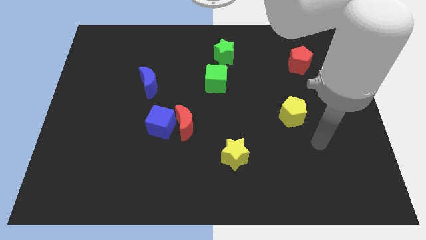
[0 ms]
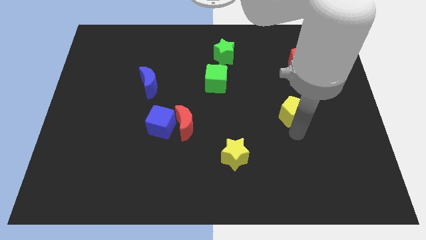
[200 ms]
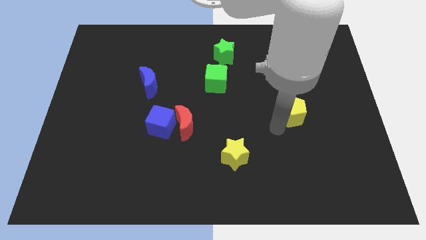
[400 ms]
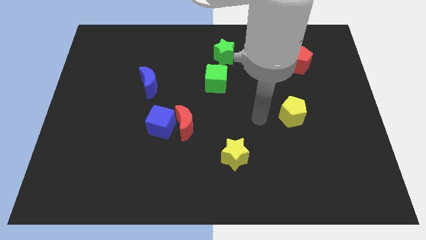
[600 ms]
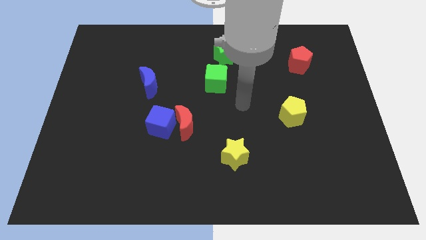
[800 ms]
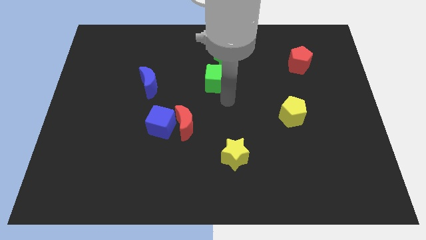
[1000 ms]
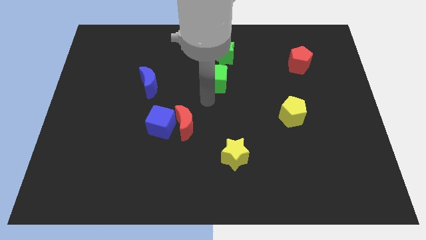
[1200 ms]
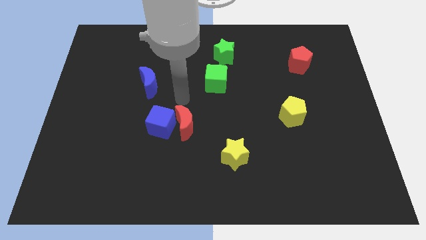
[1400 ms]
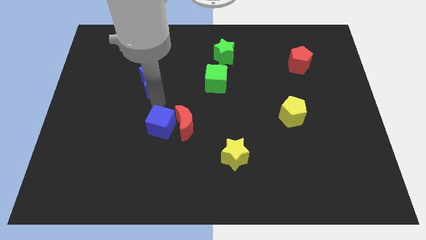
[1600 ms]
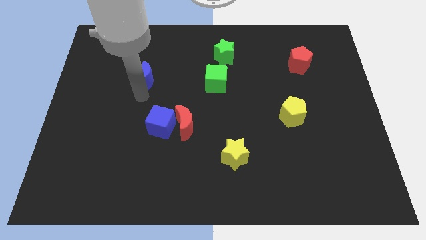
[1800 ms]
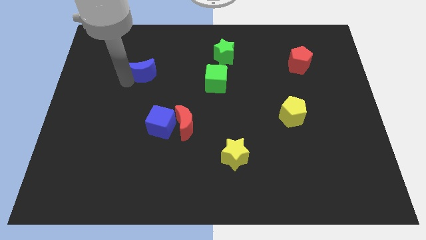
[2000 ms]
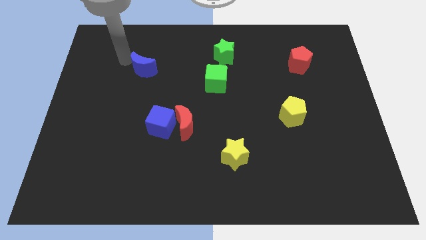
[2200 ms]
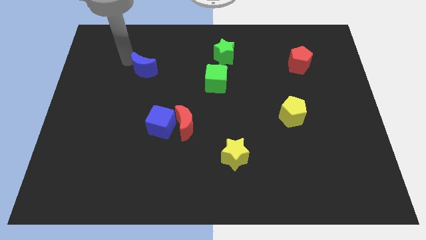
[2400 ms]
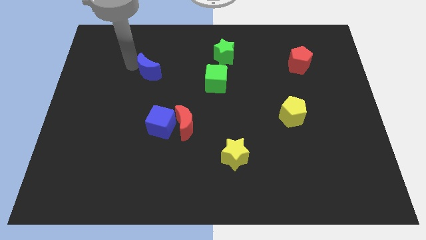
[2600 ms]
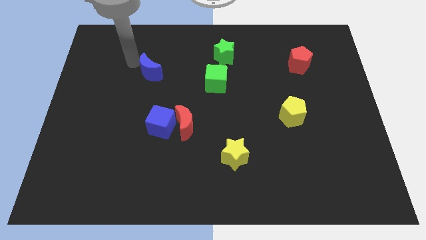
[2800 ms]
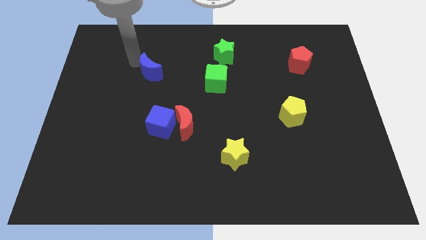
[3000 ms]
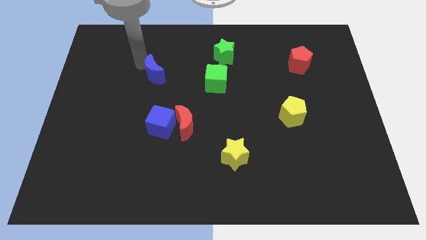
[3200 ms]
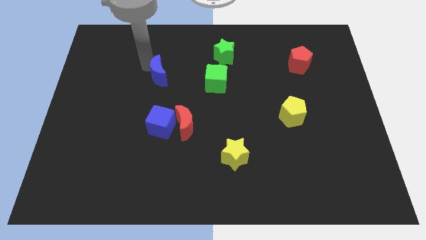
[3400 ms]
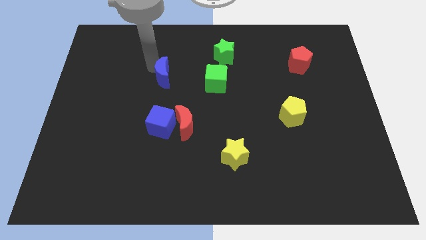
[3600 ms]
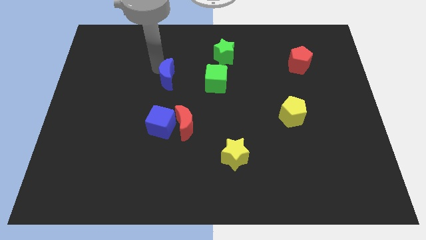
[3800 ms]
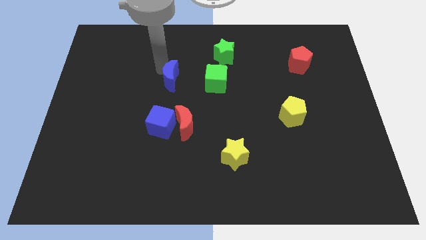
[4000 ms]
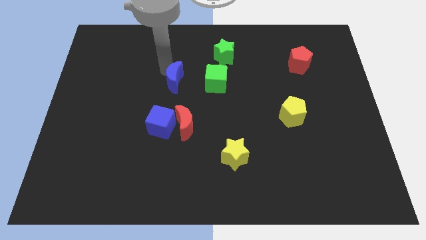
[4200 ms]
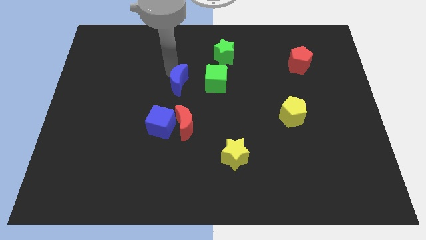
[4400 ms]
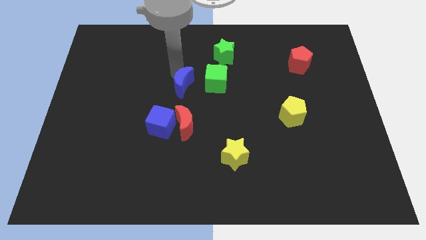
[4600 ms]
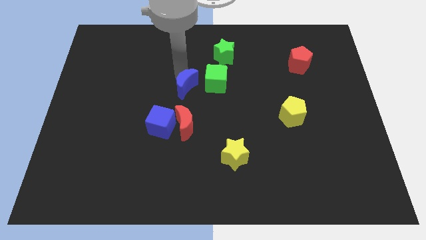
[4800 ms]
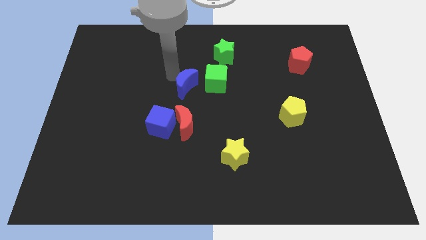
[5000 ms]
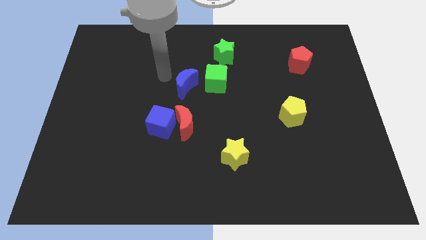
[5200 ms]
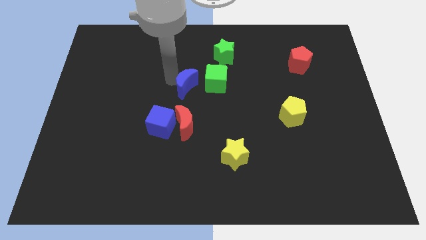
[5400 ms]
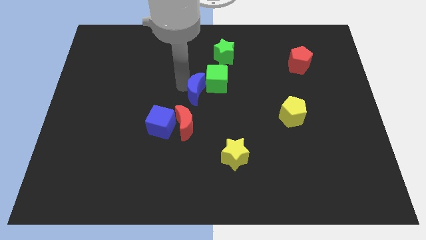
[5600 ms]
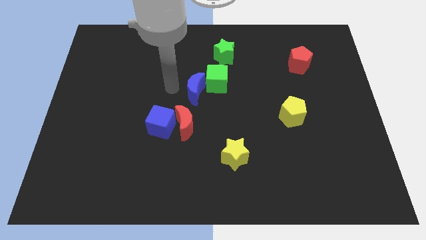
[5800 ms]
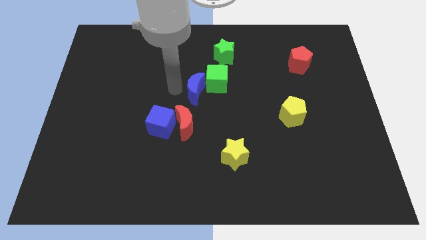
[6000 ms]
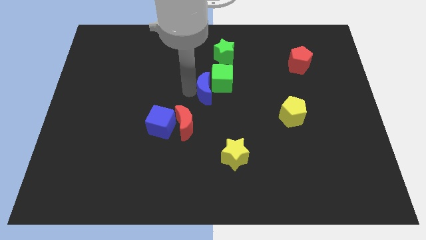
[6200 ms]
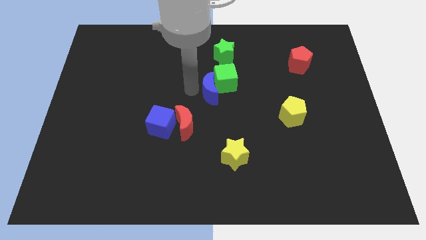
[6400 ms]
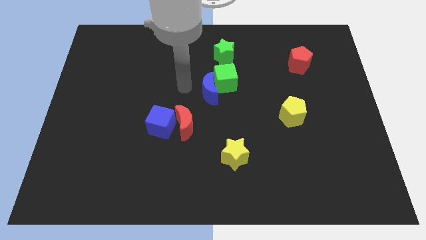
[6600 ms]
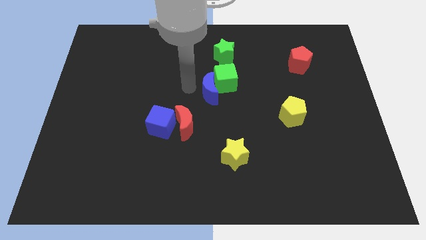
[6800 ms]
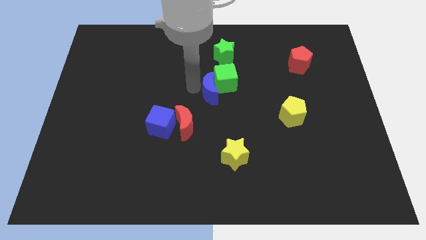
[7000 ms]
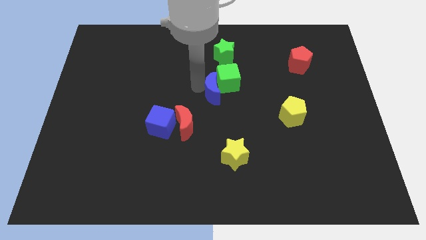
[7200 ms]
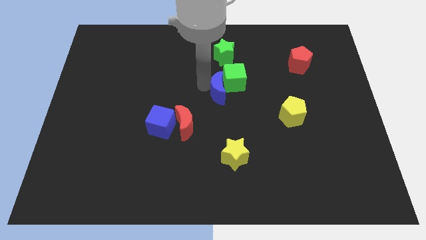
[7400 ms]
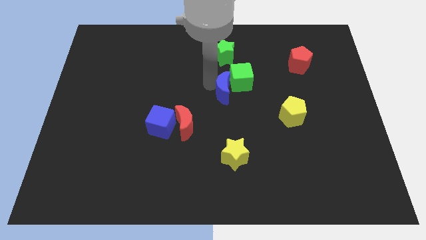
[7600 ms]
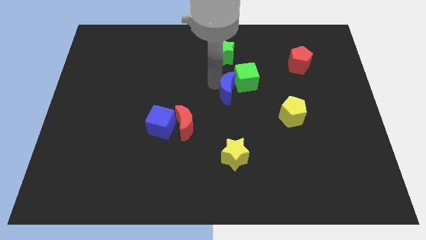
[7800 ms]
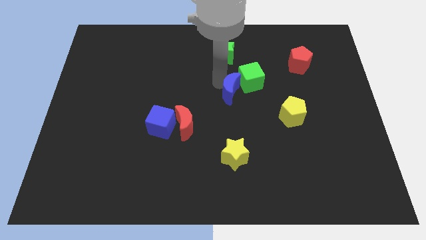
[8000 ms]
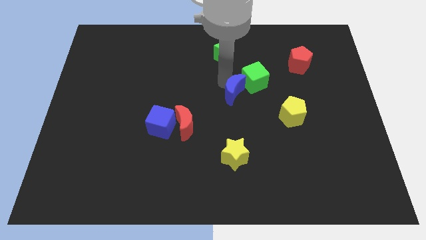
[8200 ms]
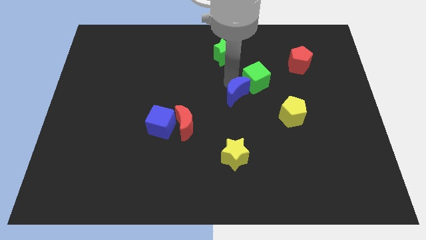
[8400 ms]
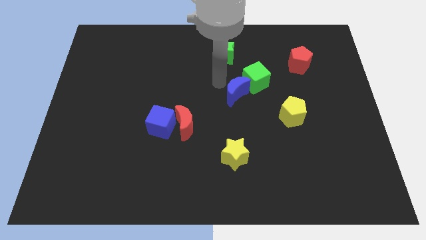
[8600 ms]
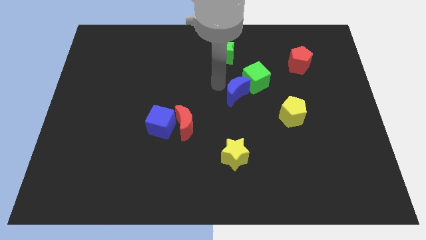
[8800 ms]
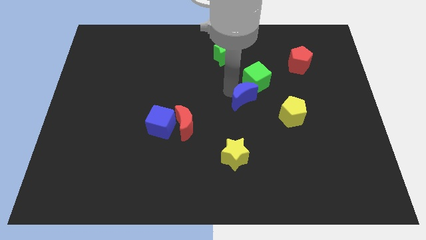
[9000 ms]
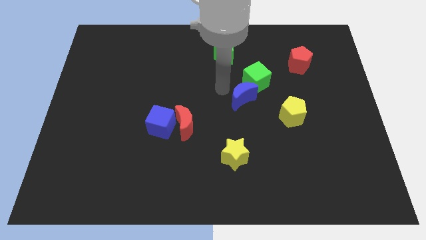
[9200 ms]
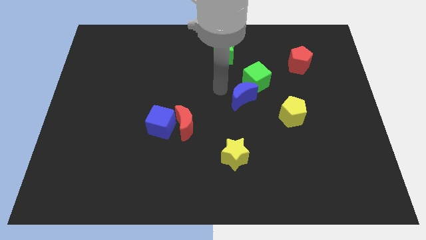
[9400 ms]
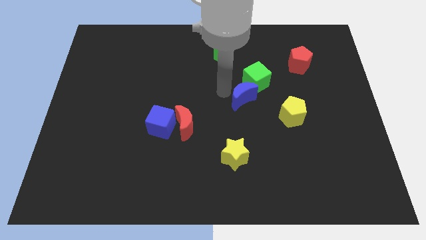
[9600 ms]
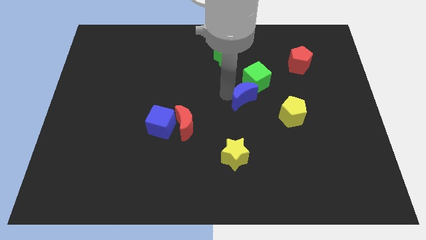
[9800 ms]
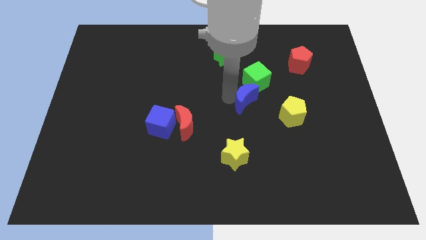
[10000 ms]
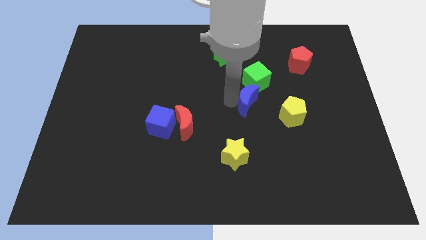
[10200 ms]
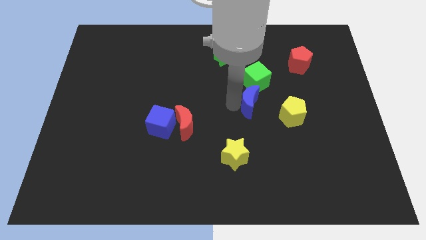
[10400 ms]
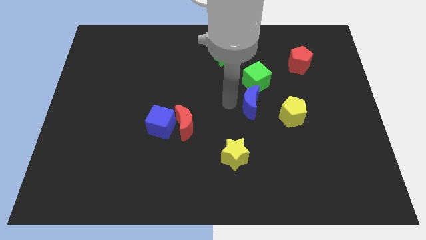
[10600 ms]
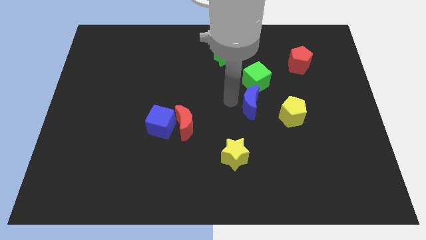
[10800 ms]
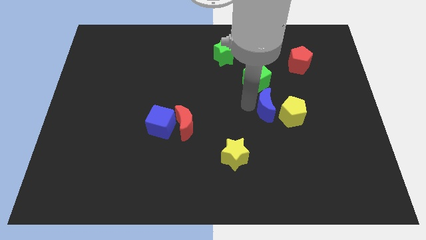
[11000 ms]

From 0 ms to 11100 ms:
push the blue moon to the yellow pentagon

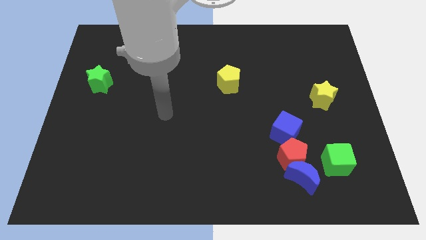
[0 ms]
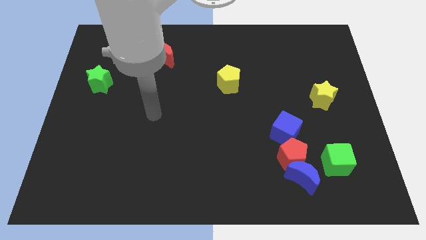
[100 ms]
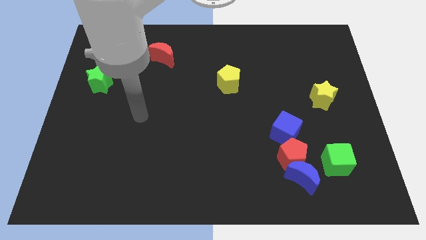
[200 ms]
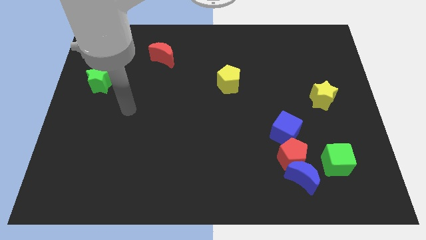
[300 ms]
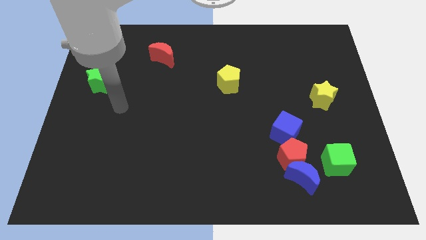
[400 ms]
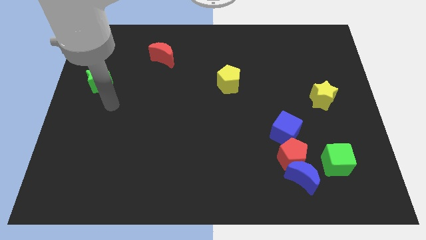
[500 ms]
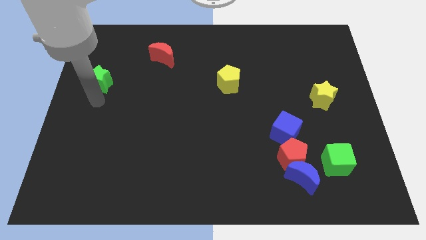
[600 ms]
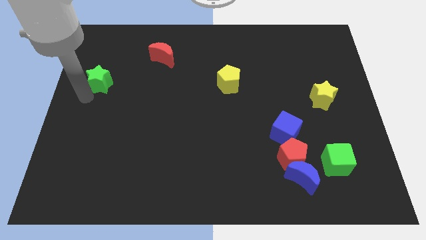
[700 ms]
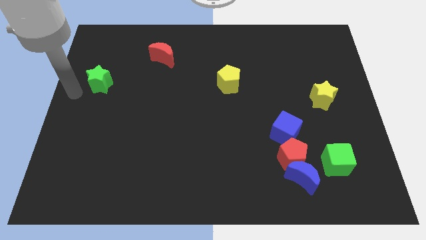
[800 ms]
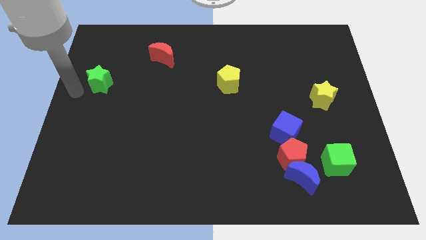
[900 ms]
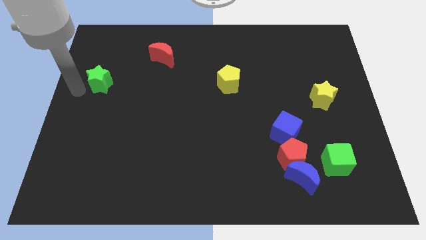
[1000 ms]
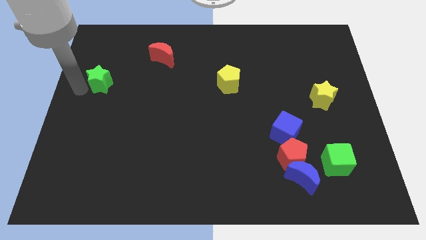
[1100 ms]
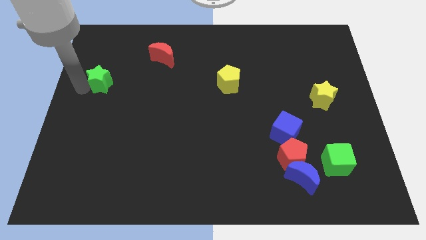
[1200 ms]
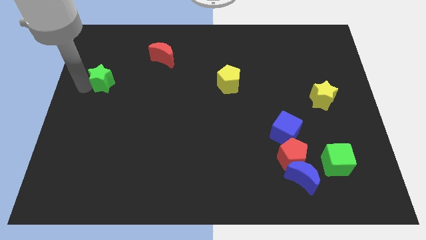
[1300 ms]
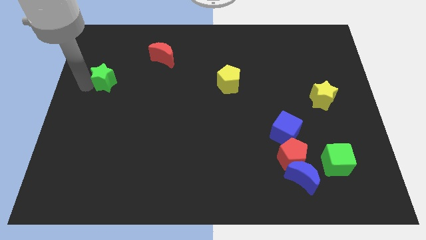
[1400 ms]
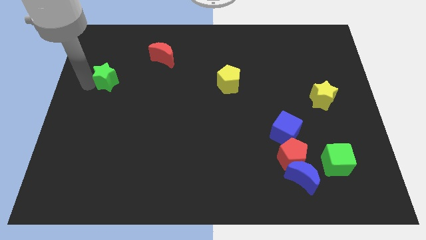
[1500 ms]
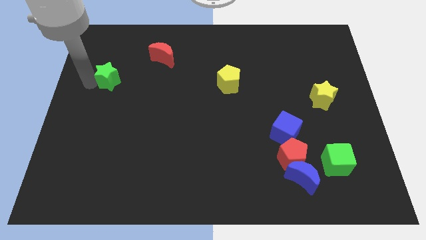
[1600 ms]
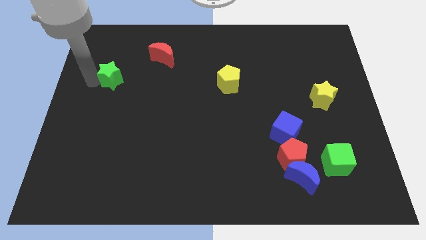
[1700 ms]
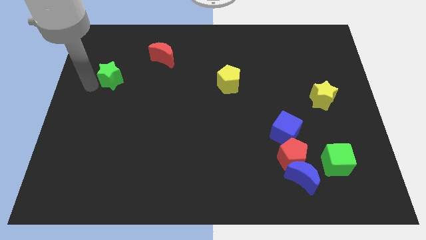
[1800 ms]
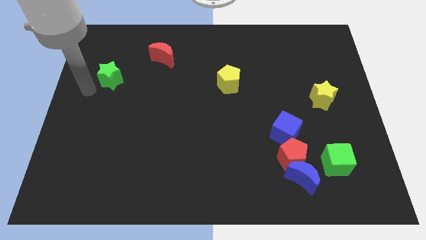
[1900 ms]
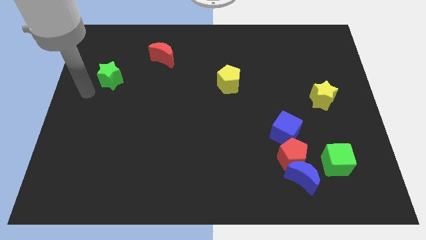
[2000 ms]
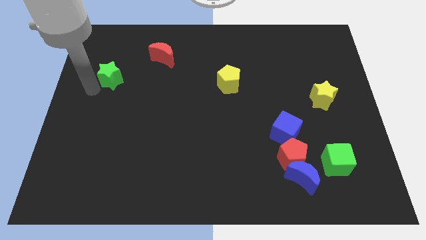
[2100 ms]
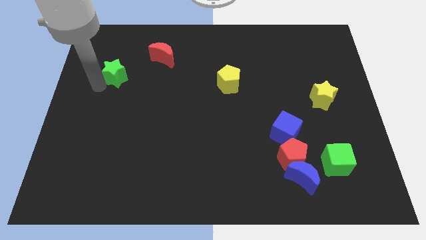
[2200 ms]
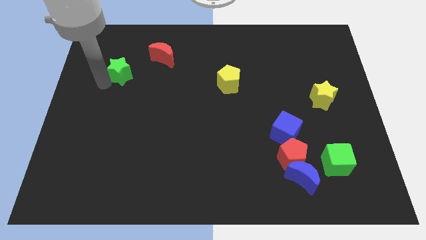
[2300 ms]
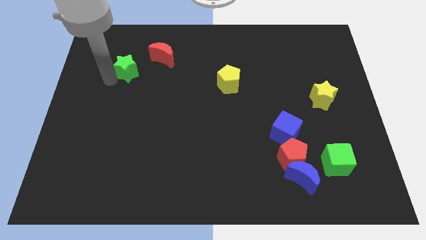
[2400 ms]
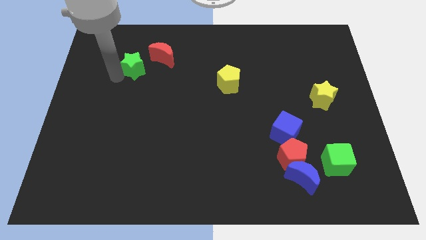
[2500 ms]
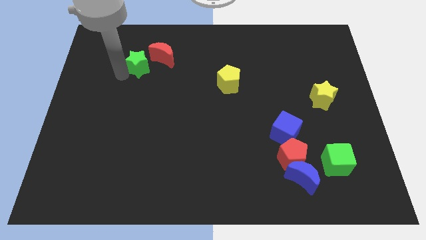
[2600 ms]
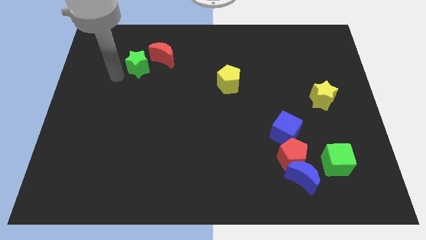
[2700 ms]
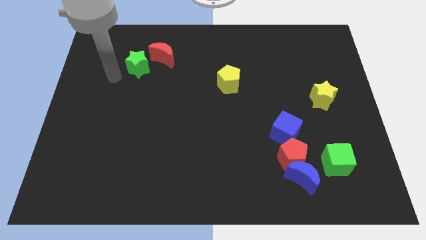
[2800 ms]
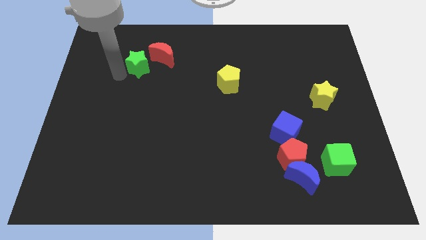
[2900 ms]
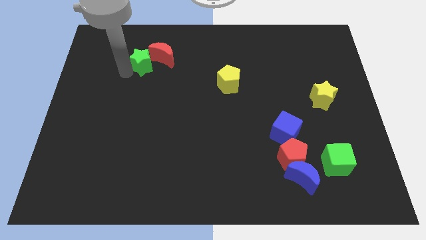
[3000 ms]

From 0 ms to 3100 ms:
slide the green star towards the red moon
